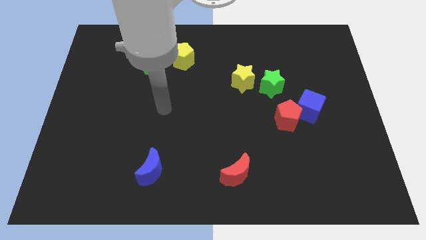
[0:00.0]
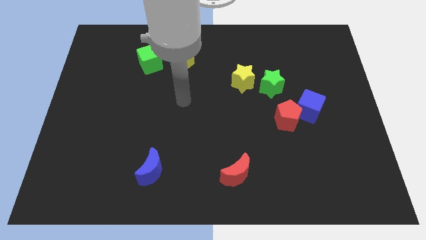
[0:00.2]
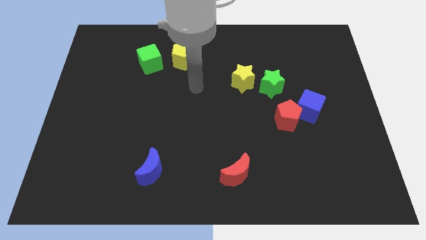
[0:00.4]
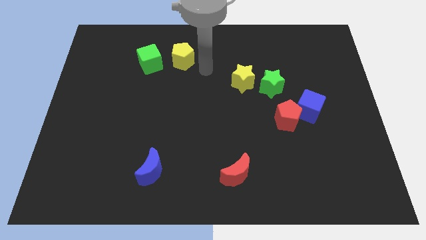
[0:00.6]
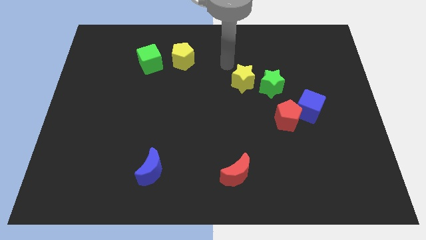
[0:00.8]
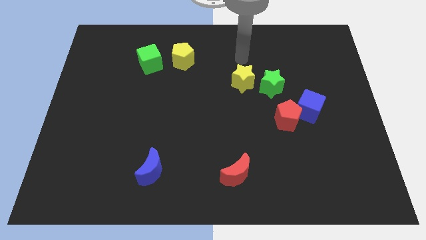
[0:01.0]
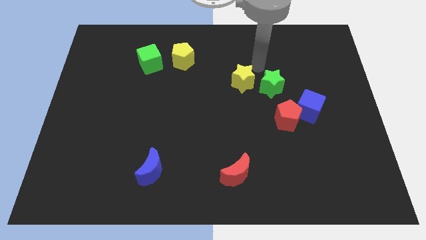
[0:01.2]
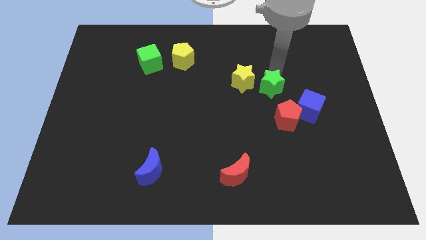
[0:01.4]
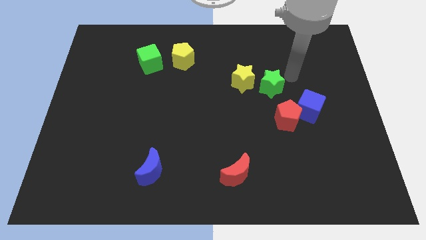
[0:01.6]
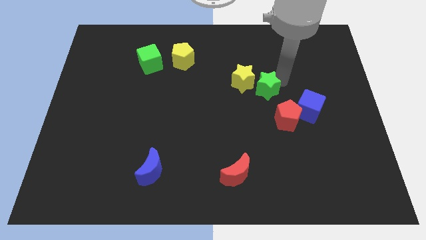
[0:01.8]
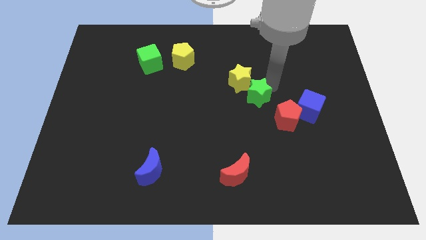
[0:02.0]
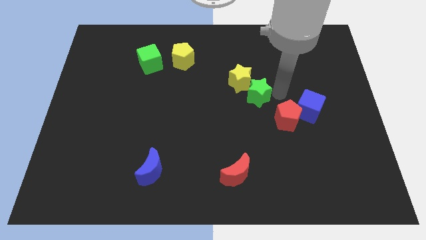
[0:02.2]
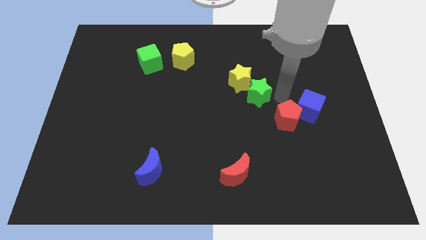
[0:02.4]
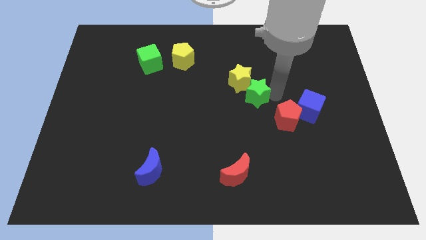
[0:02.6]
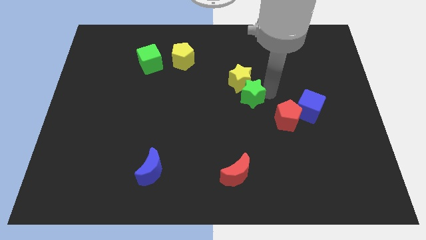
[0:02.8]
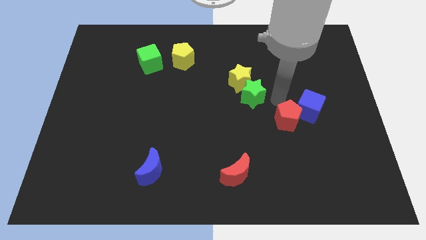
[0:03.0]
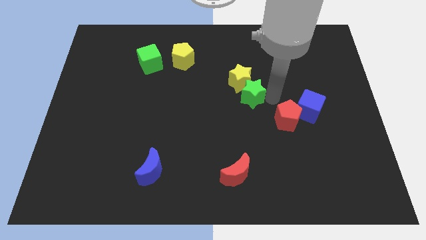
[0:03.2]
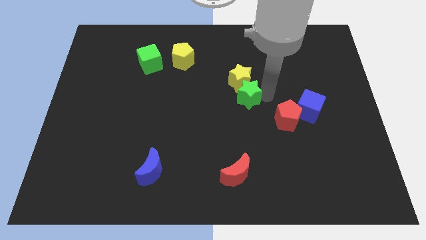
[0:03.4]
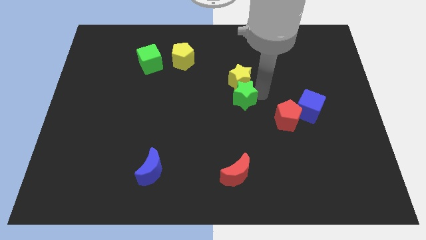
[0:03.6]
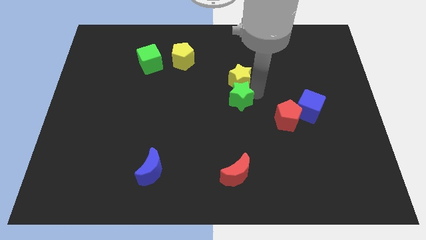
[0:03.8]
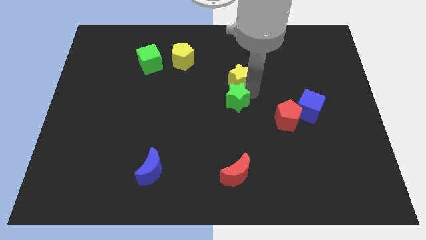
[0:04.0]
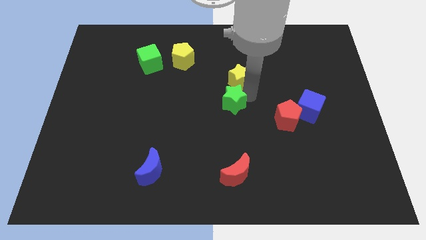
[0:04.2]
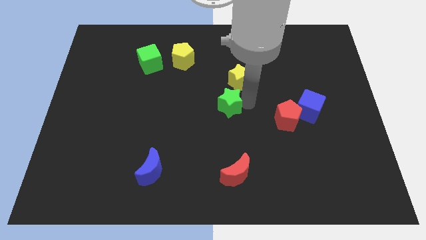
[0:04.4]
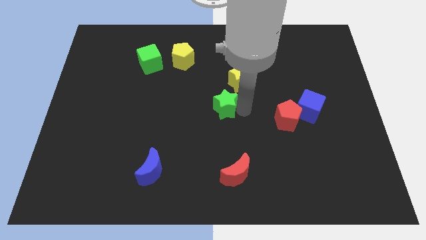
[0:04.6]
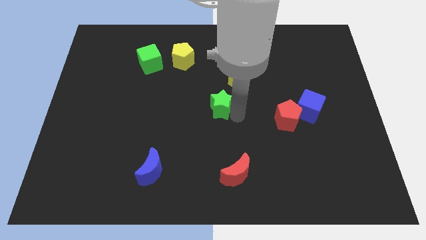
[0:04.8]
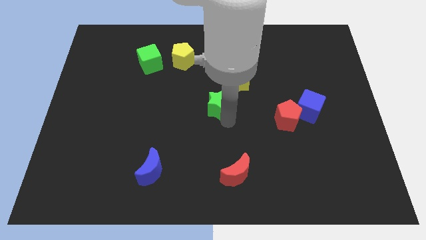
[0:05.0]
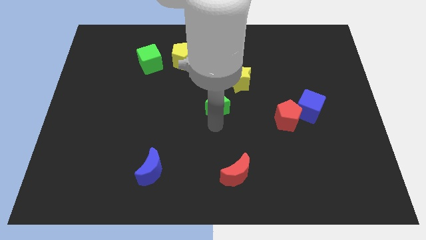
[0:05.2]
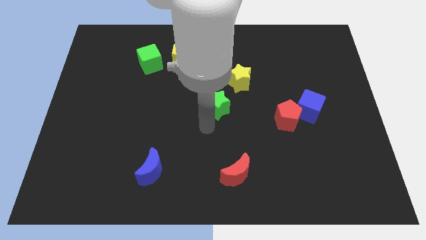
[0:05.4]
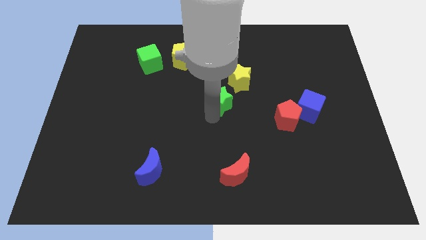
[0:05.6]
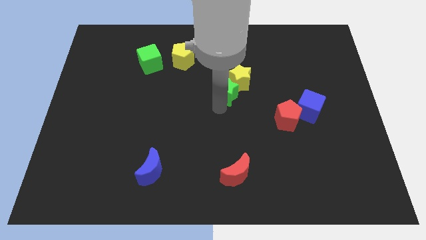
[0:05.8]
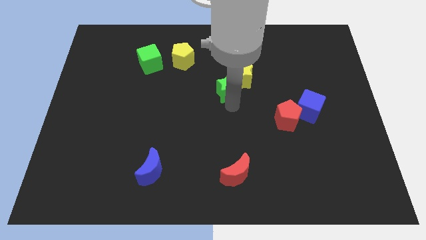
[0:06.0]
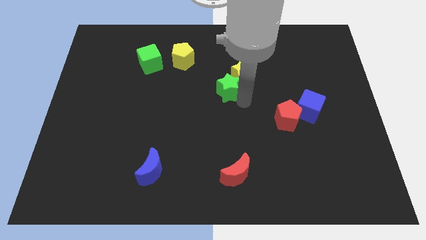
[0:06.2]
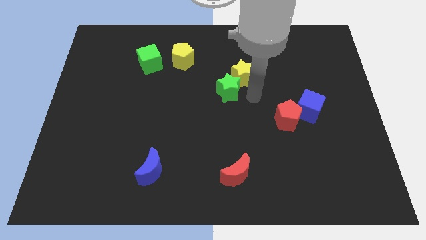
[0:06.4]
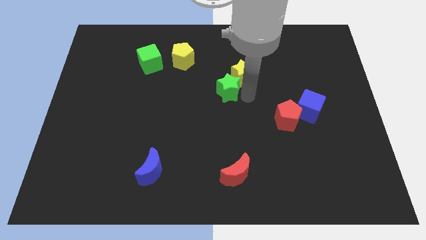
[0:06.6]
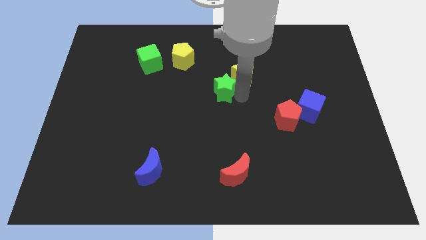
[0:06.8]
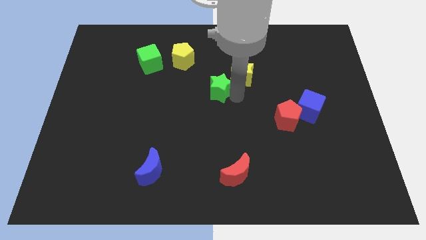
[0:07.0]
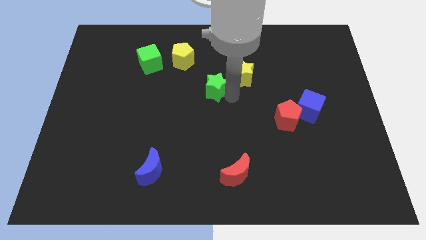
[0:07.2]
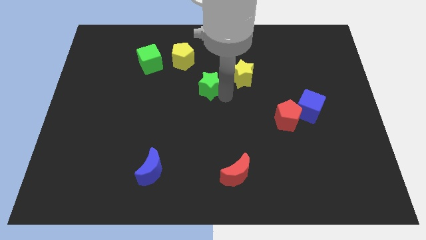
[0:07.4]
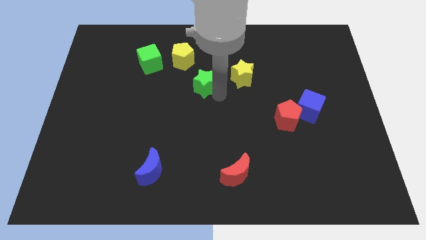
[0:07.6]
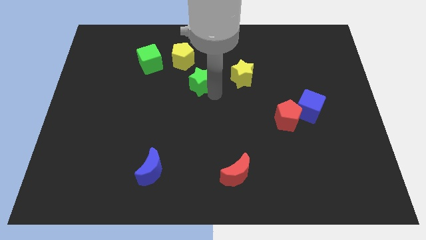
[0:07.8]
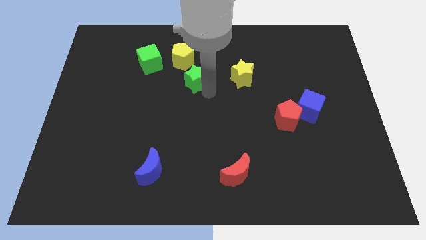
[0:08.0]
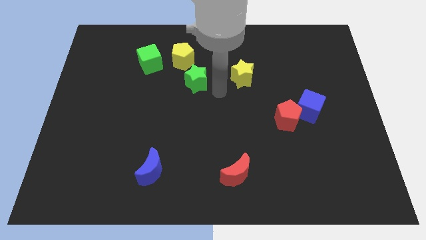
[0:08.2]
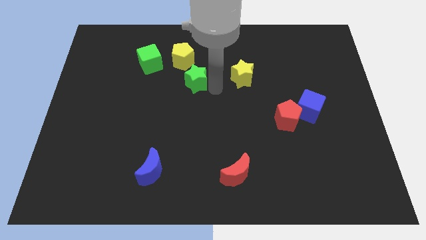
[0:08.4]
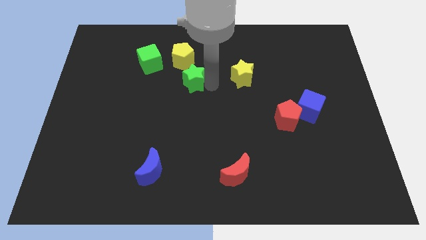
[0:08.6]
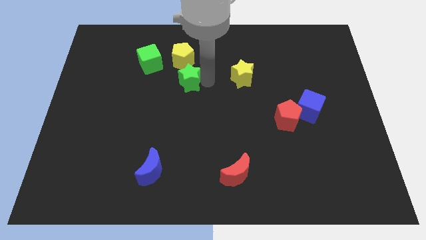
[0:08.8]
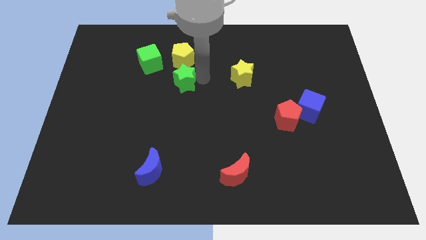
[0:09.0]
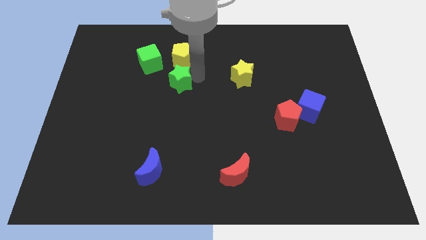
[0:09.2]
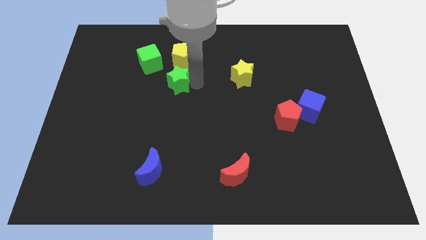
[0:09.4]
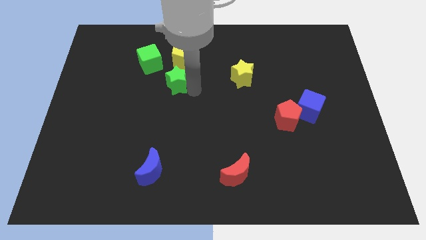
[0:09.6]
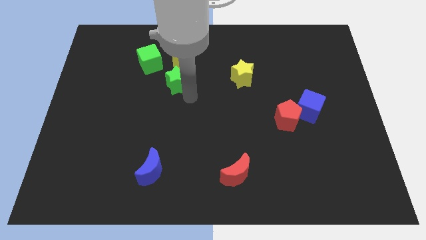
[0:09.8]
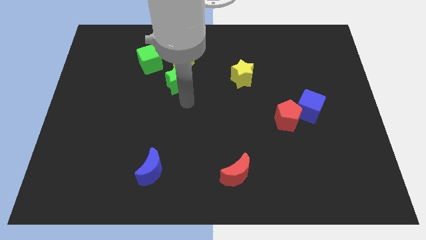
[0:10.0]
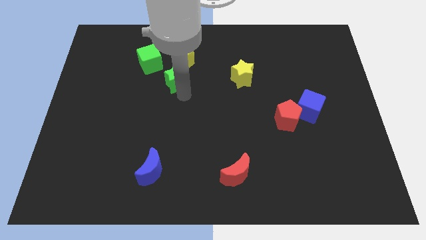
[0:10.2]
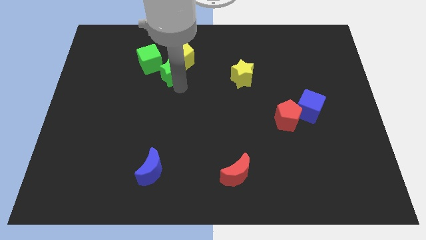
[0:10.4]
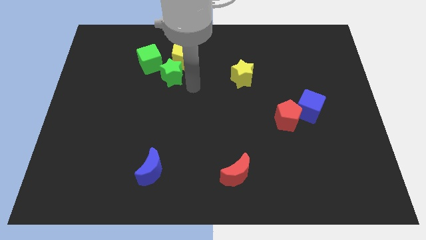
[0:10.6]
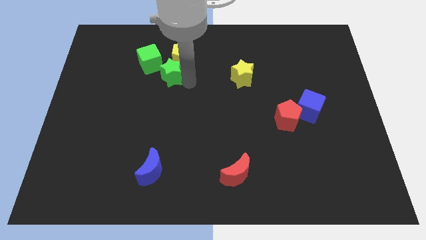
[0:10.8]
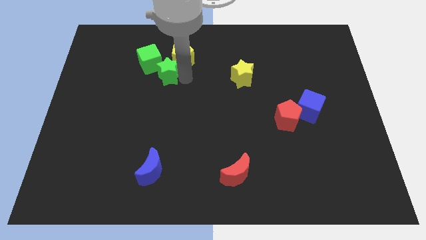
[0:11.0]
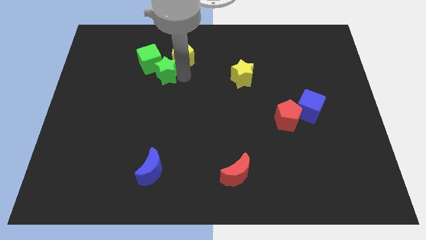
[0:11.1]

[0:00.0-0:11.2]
push the green star close to the green cube
